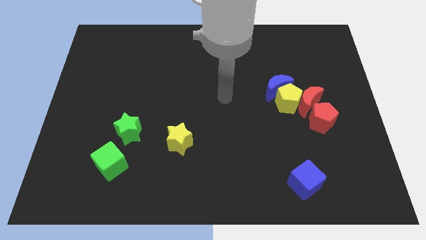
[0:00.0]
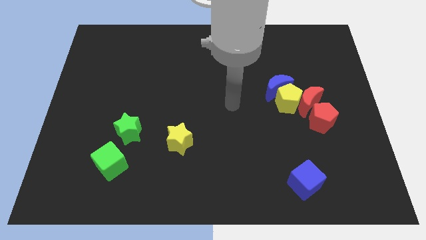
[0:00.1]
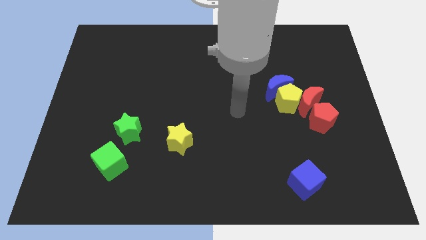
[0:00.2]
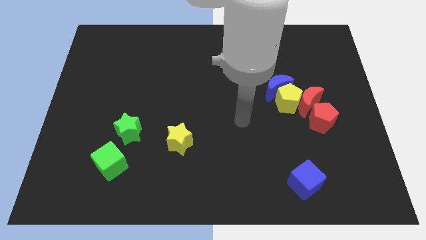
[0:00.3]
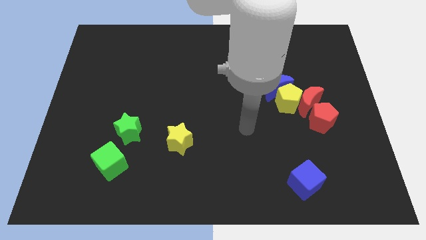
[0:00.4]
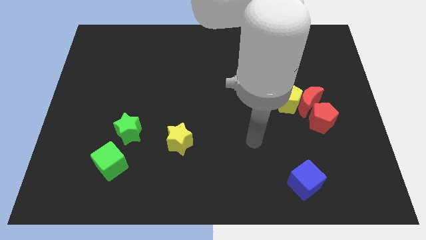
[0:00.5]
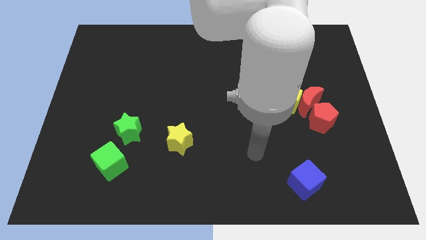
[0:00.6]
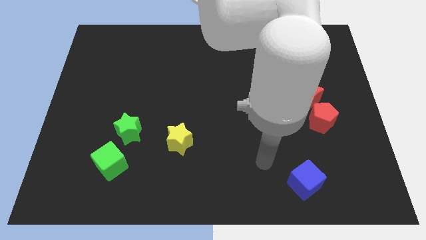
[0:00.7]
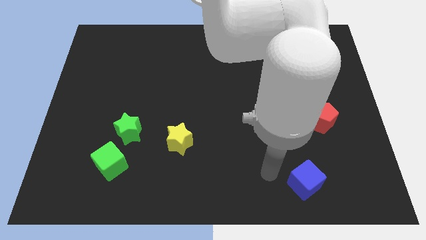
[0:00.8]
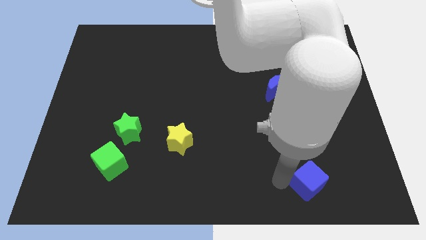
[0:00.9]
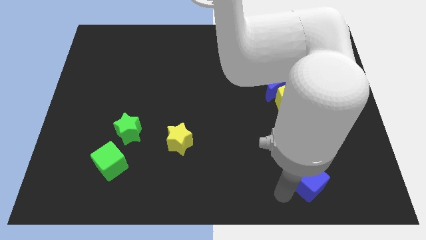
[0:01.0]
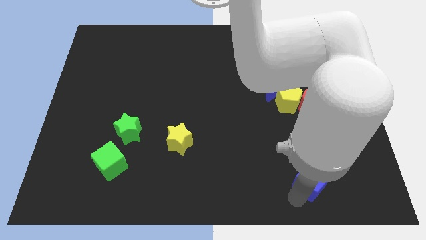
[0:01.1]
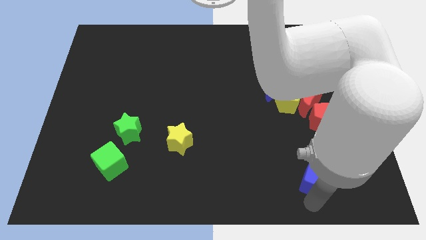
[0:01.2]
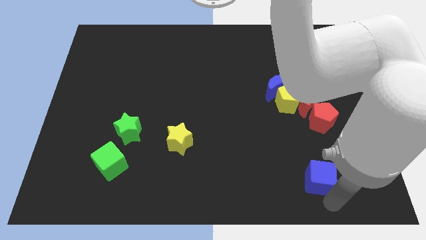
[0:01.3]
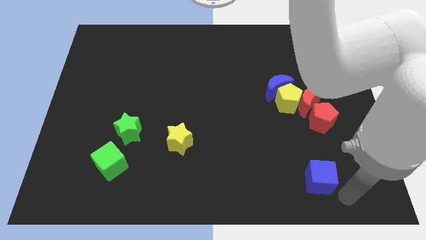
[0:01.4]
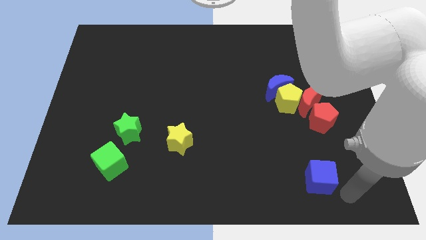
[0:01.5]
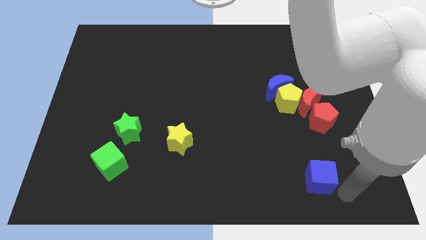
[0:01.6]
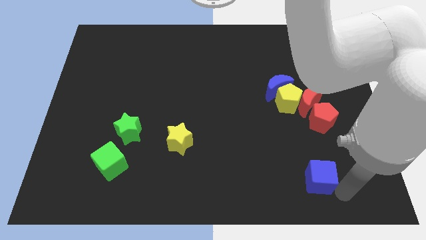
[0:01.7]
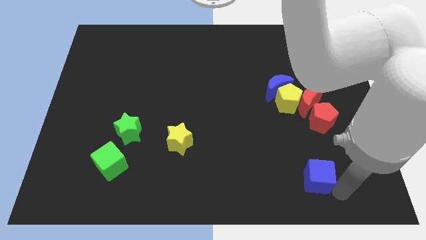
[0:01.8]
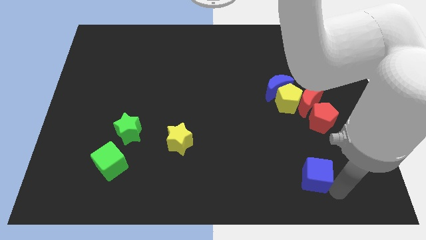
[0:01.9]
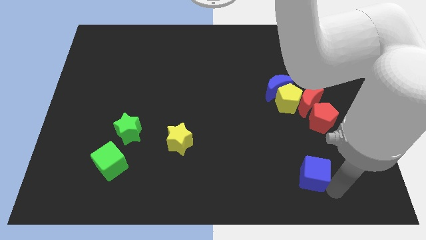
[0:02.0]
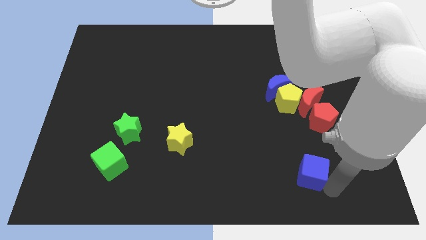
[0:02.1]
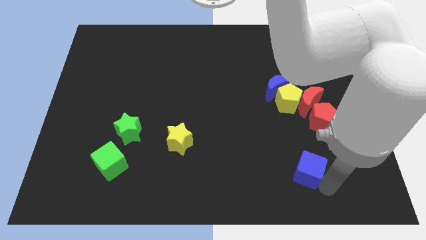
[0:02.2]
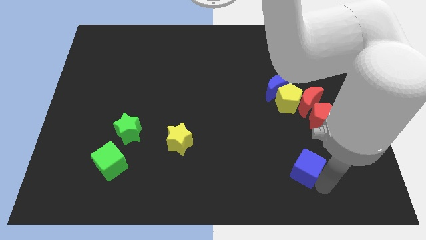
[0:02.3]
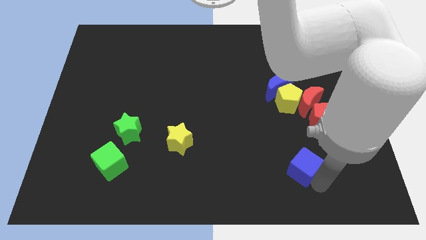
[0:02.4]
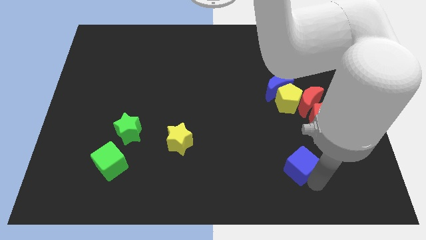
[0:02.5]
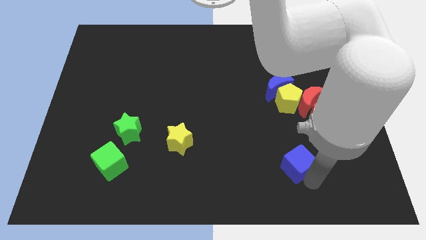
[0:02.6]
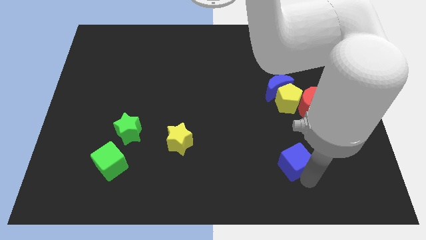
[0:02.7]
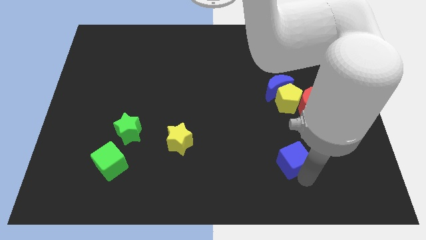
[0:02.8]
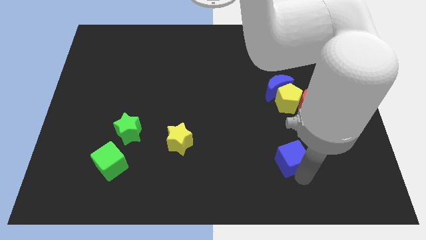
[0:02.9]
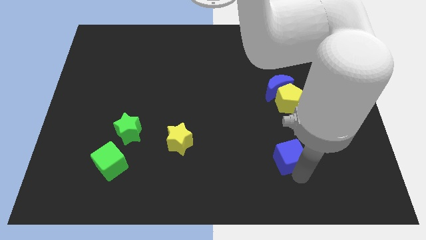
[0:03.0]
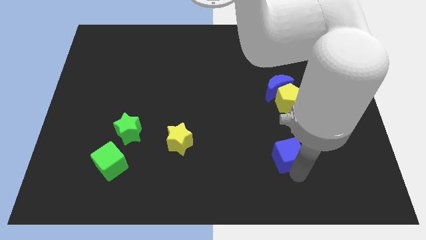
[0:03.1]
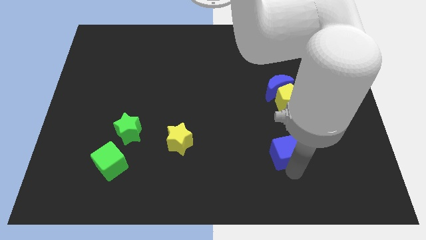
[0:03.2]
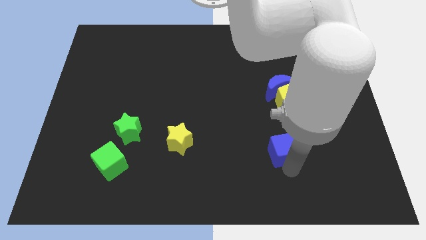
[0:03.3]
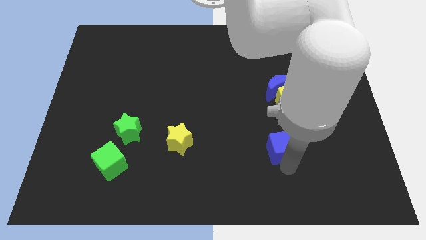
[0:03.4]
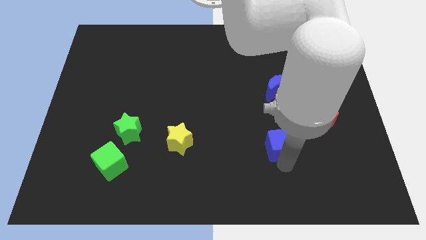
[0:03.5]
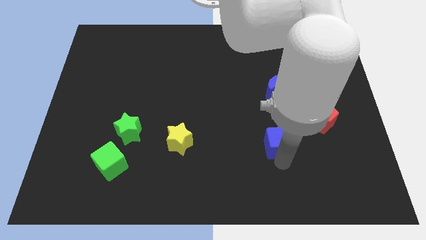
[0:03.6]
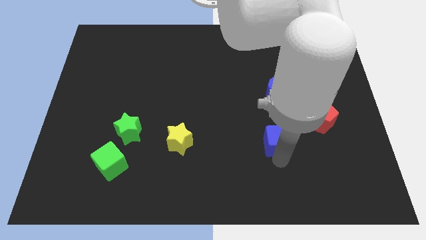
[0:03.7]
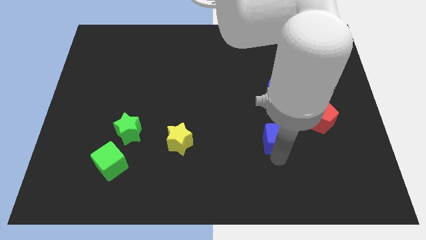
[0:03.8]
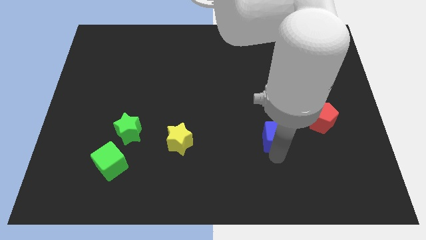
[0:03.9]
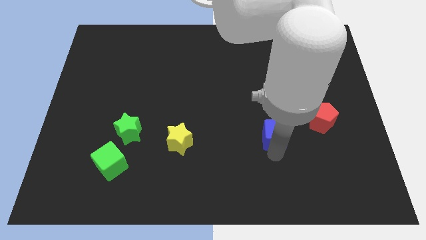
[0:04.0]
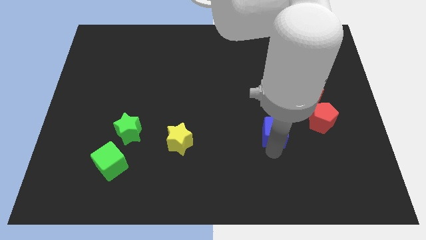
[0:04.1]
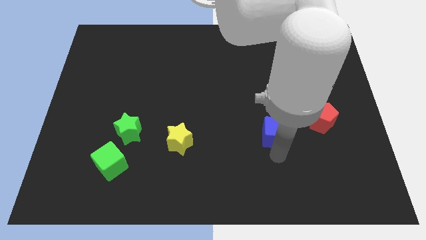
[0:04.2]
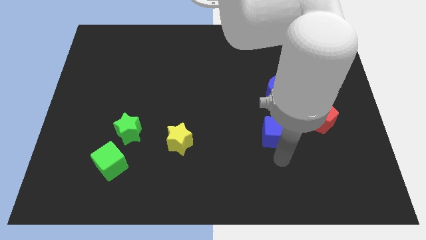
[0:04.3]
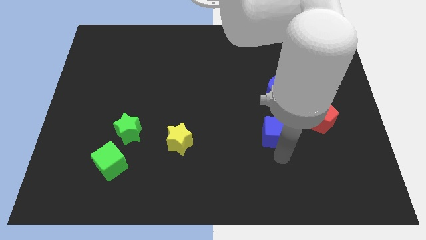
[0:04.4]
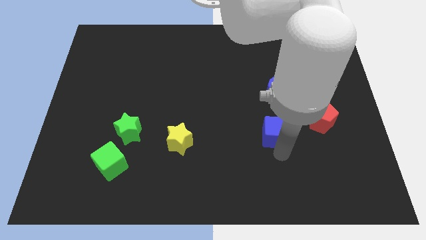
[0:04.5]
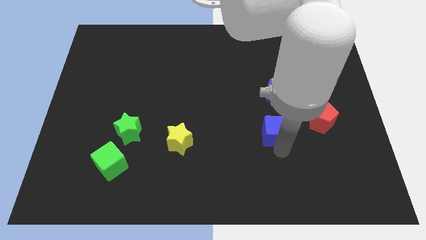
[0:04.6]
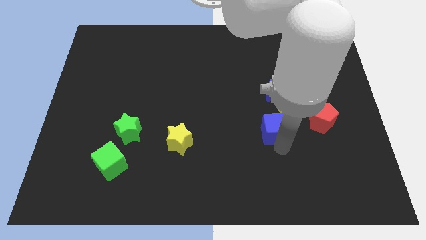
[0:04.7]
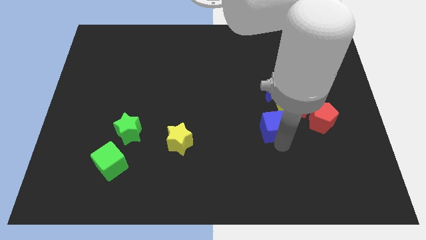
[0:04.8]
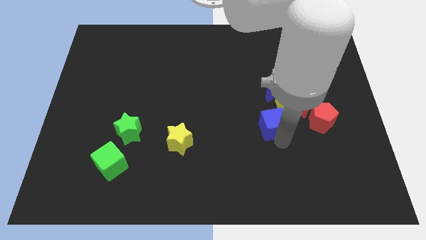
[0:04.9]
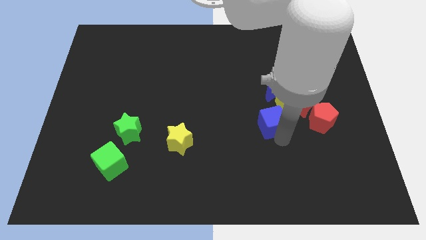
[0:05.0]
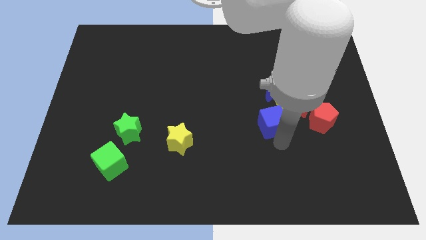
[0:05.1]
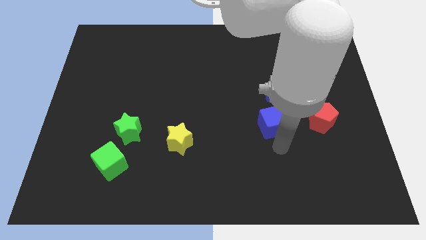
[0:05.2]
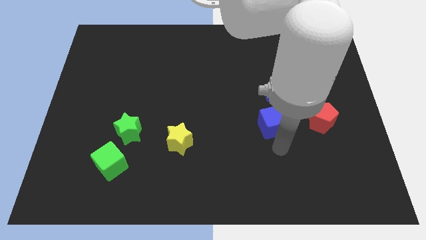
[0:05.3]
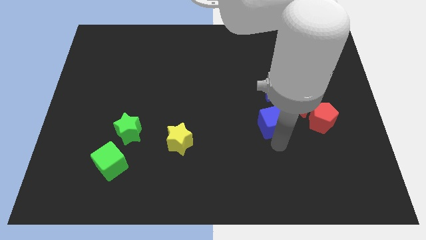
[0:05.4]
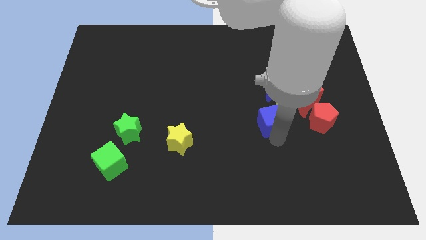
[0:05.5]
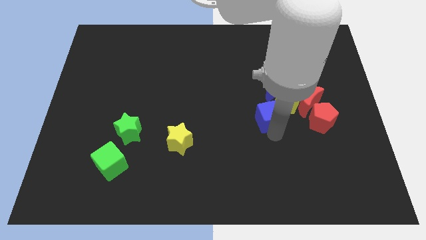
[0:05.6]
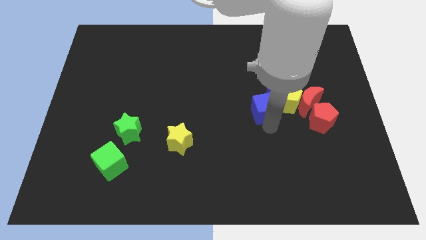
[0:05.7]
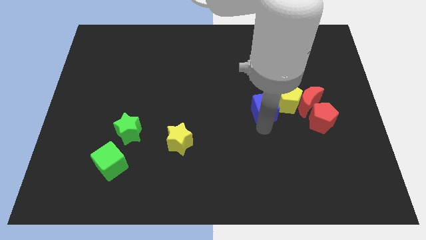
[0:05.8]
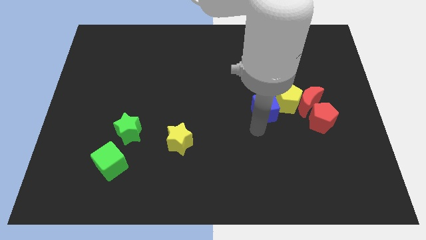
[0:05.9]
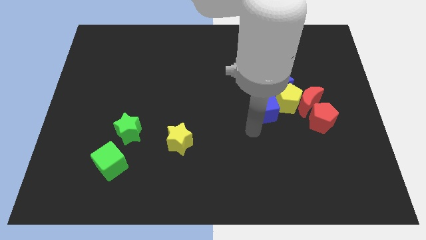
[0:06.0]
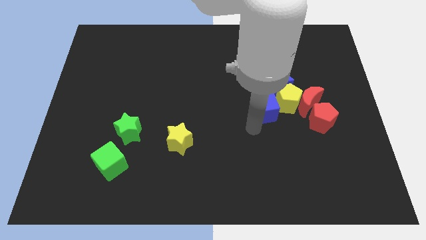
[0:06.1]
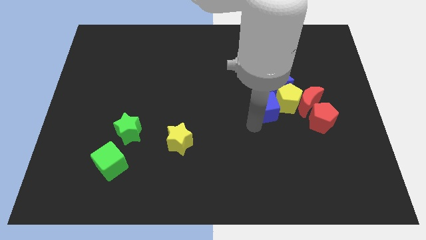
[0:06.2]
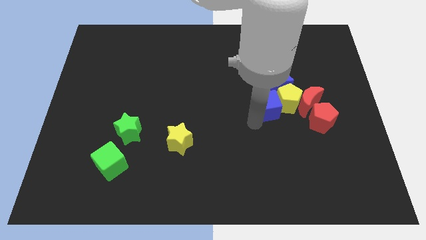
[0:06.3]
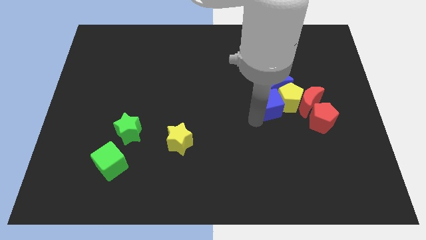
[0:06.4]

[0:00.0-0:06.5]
put the blue cube next to the blue moon

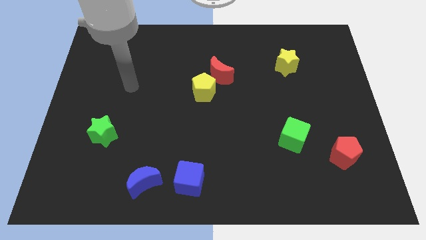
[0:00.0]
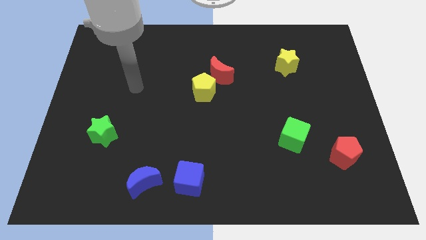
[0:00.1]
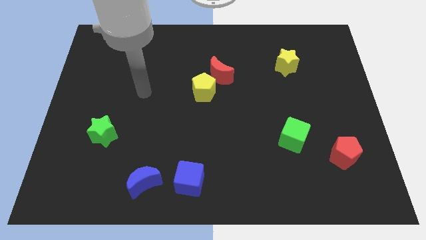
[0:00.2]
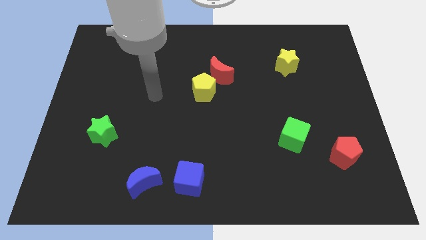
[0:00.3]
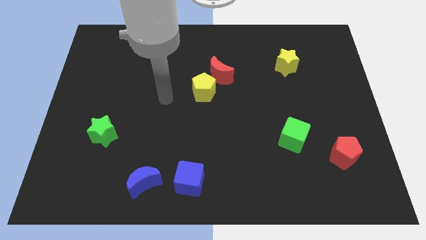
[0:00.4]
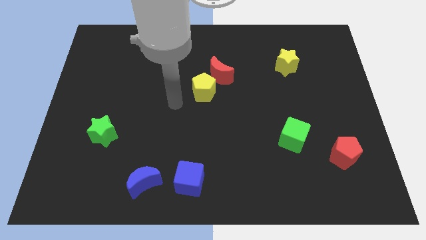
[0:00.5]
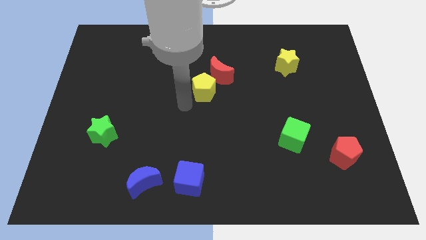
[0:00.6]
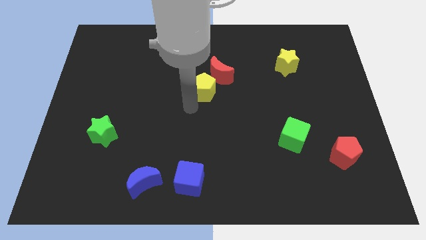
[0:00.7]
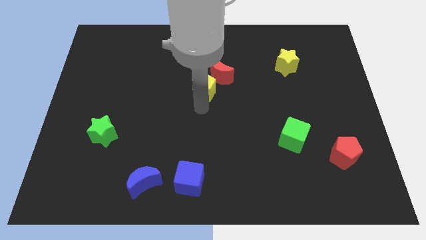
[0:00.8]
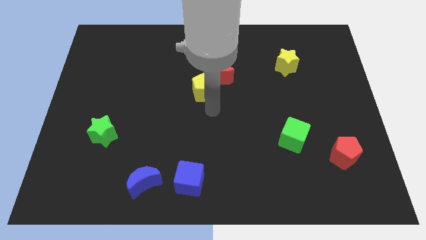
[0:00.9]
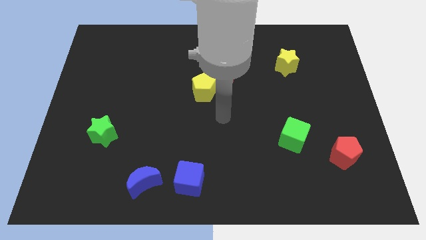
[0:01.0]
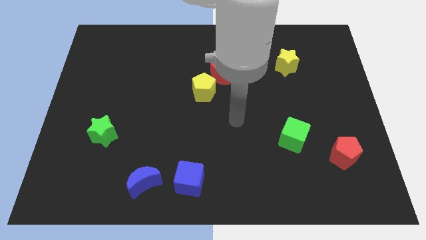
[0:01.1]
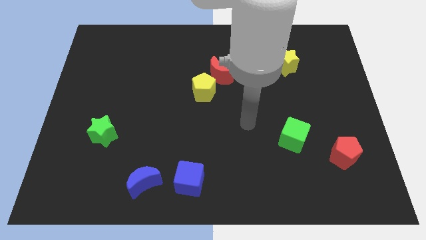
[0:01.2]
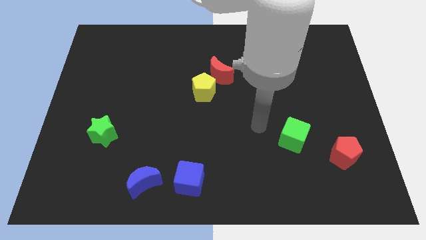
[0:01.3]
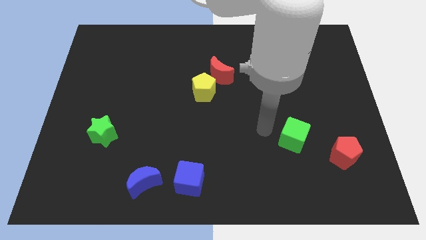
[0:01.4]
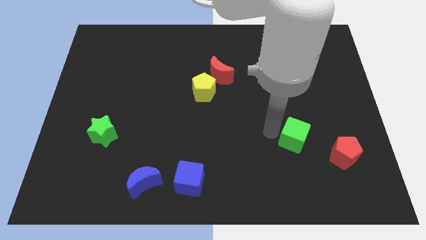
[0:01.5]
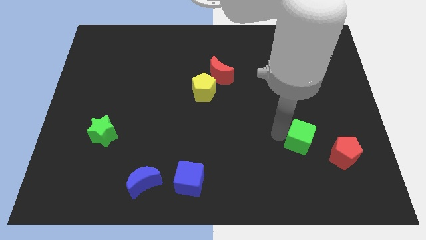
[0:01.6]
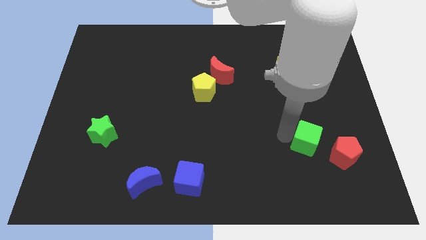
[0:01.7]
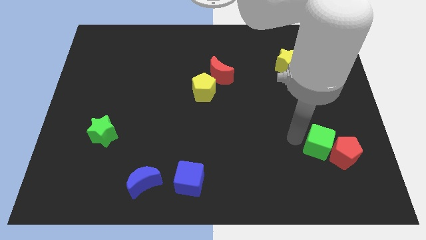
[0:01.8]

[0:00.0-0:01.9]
move the green cube next to the red pentagon
